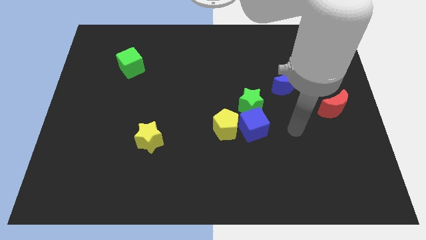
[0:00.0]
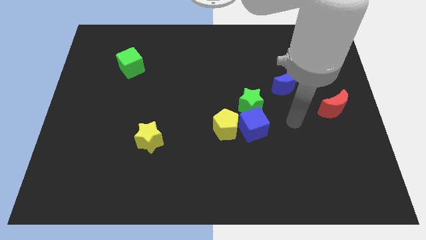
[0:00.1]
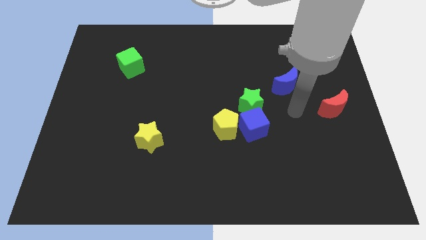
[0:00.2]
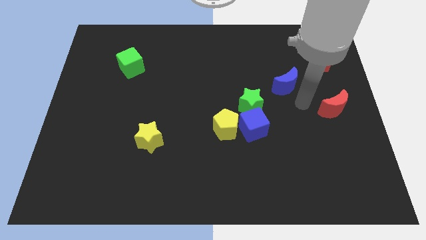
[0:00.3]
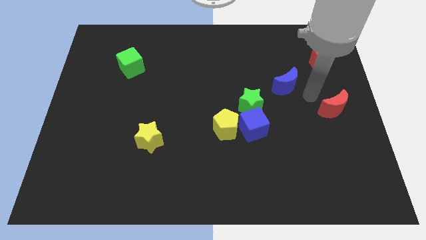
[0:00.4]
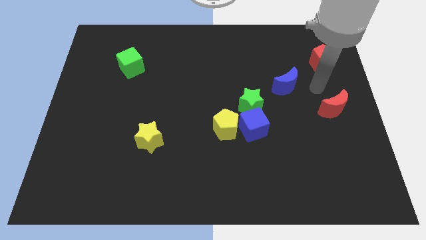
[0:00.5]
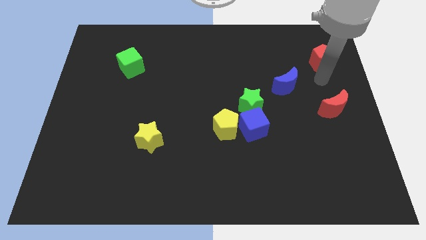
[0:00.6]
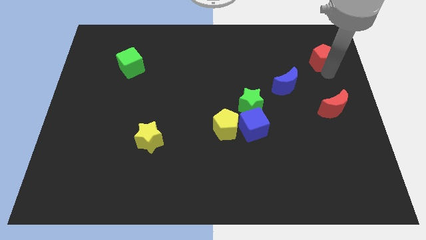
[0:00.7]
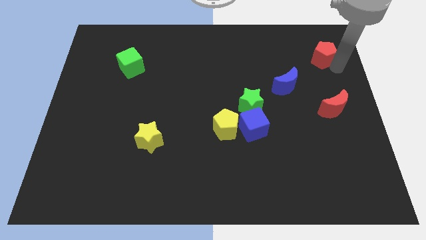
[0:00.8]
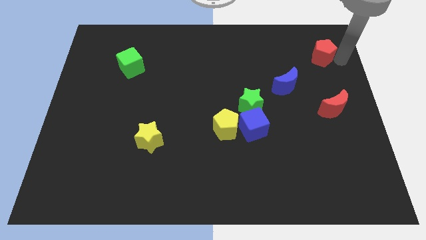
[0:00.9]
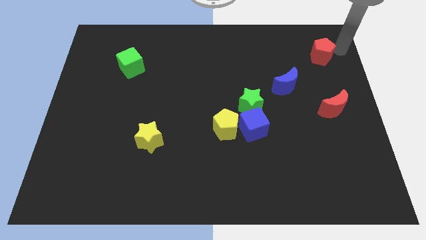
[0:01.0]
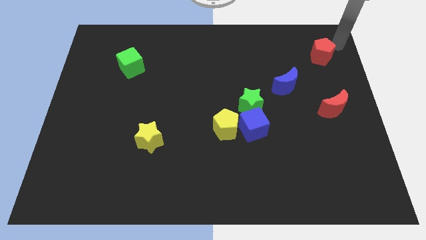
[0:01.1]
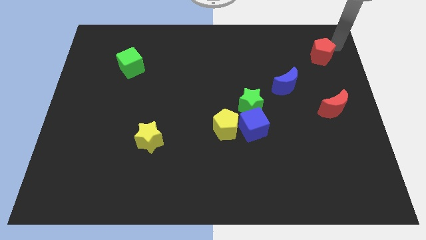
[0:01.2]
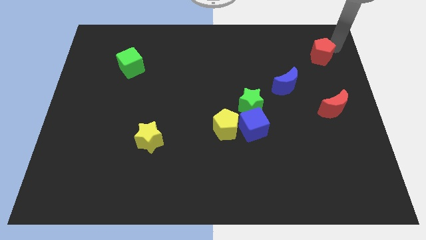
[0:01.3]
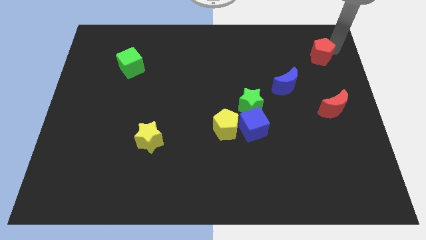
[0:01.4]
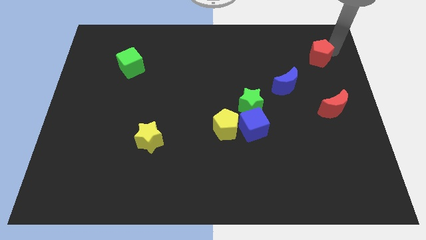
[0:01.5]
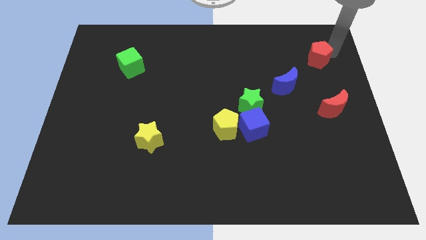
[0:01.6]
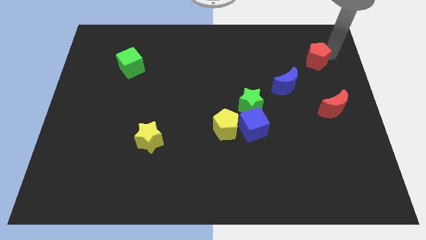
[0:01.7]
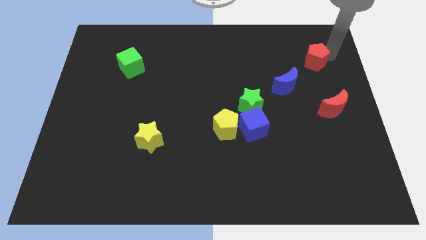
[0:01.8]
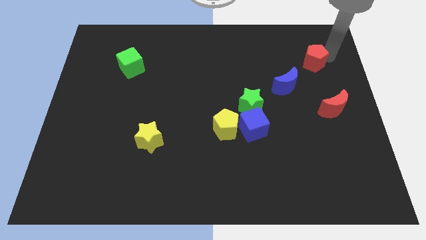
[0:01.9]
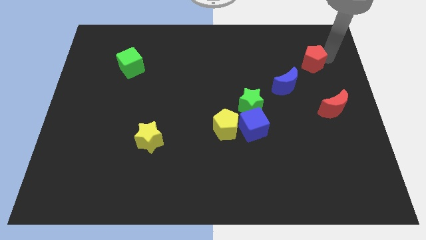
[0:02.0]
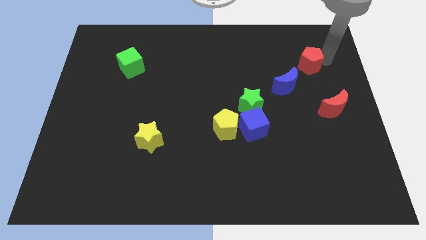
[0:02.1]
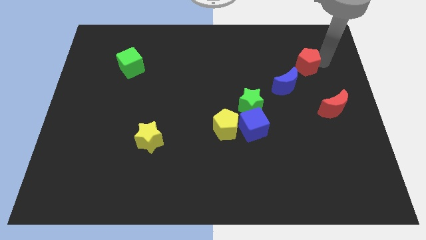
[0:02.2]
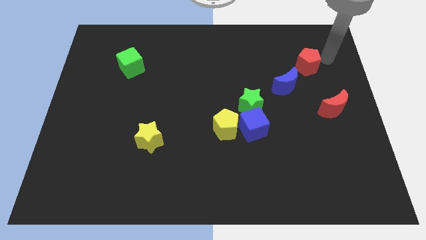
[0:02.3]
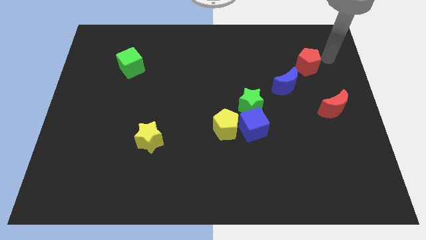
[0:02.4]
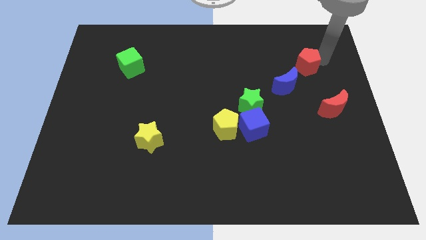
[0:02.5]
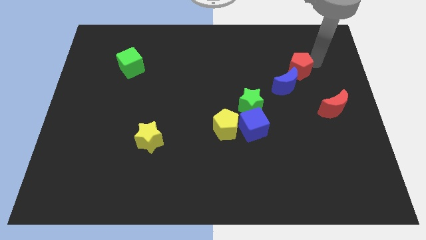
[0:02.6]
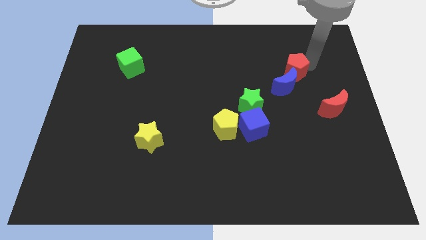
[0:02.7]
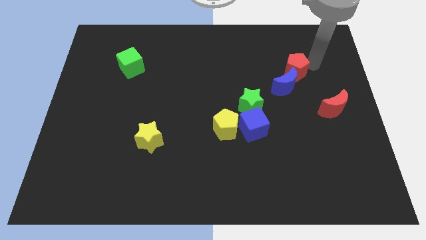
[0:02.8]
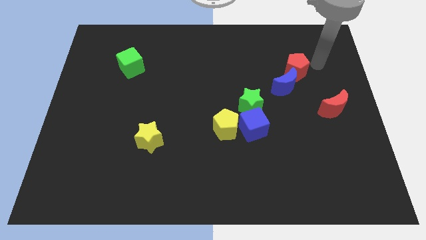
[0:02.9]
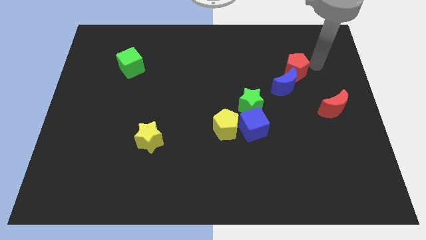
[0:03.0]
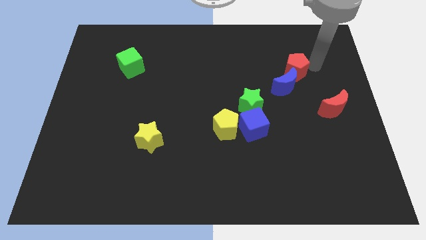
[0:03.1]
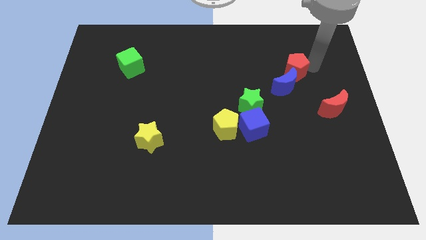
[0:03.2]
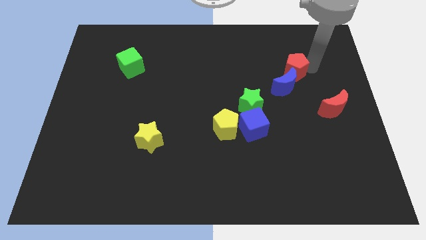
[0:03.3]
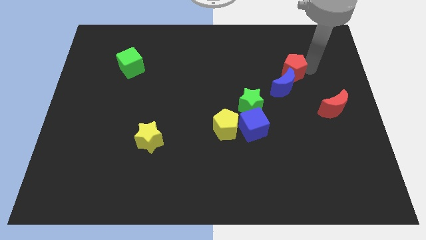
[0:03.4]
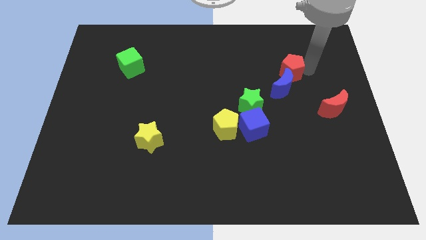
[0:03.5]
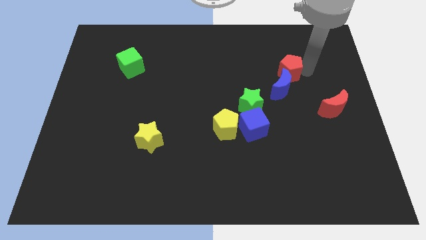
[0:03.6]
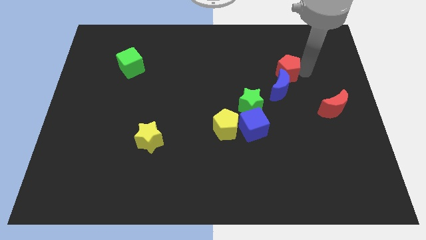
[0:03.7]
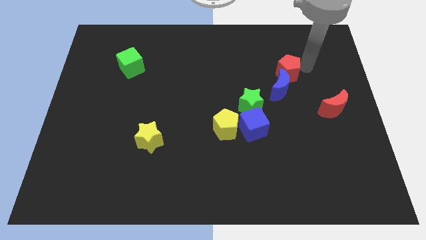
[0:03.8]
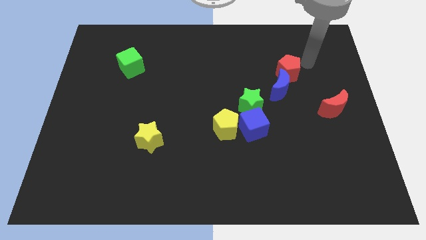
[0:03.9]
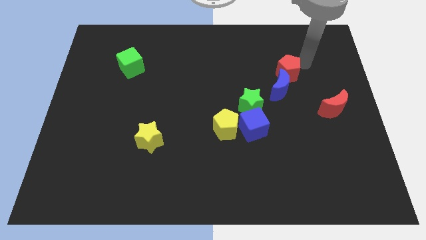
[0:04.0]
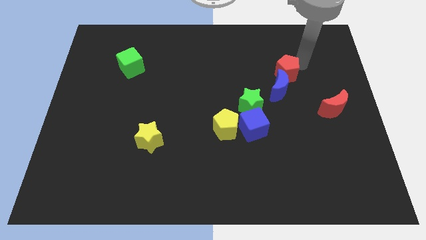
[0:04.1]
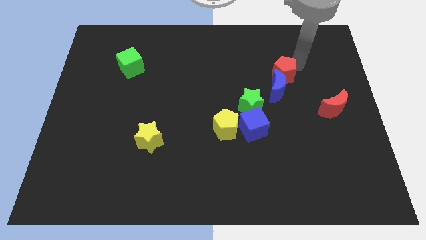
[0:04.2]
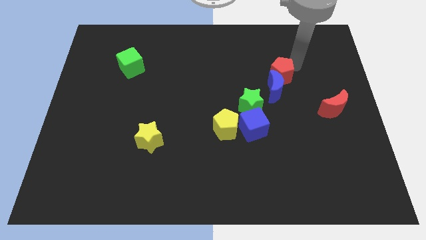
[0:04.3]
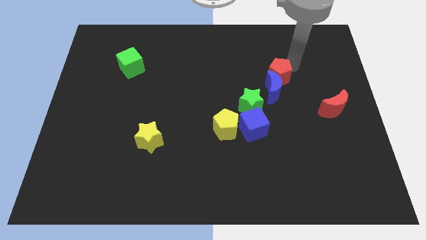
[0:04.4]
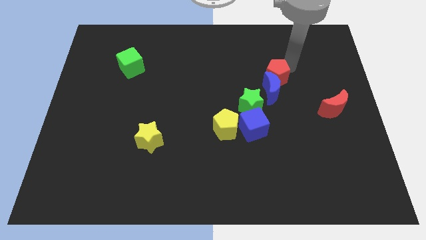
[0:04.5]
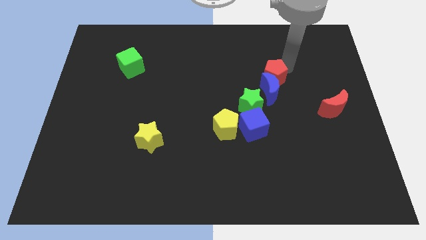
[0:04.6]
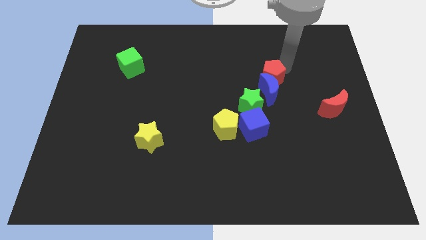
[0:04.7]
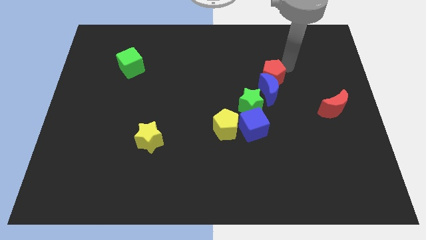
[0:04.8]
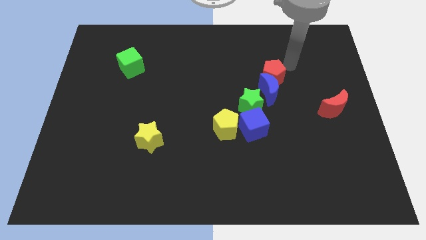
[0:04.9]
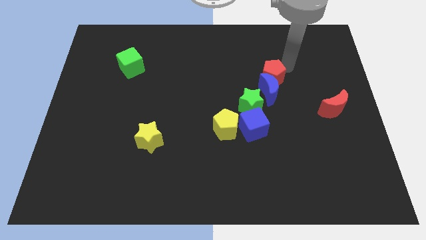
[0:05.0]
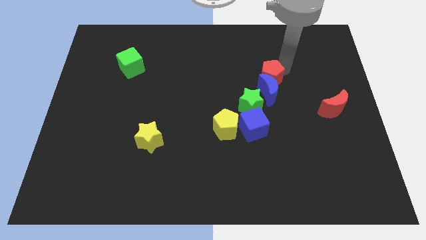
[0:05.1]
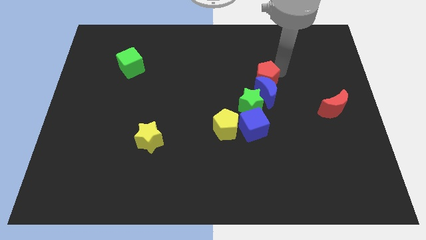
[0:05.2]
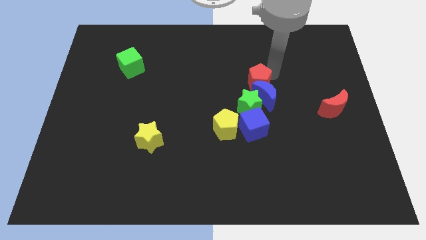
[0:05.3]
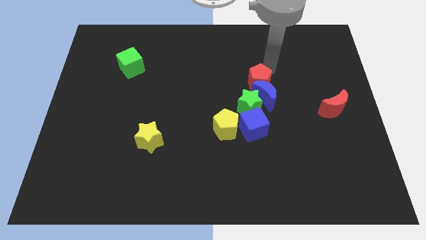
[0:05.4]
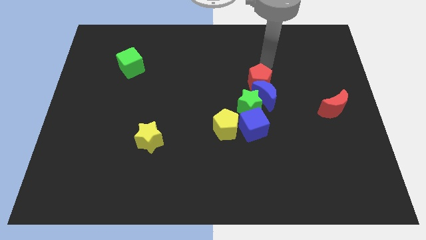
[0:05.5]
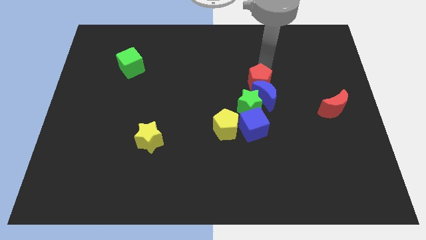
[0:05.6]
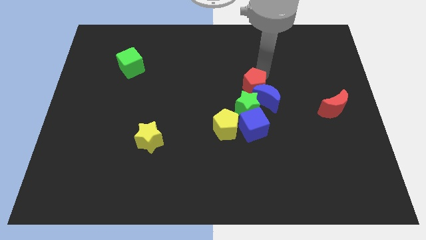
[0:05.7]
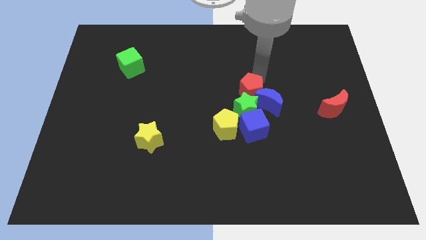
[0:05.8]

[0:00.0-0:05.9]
push the red pentagon close to the green star

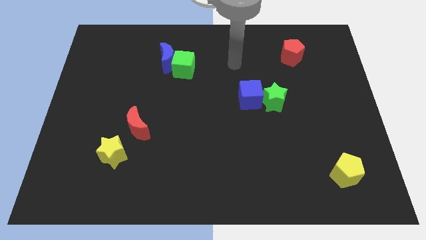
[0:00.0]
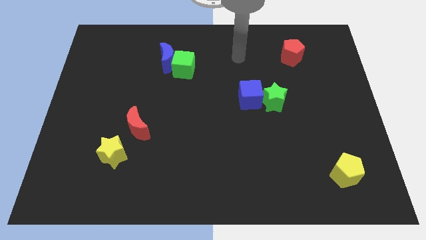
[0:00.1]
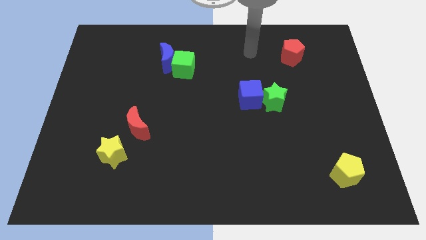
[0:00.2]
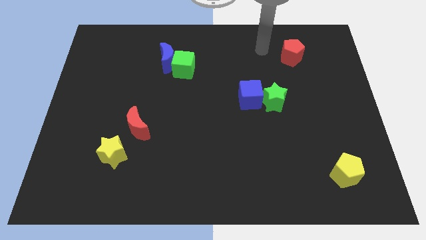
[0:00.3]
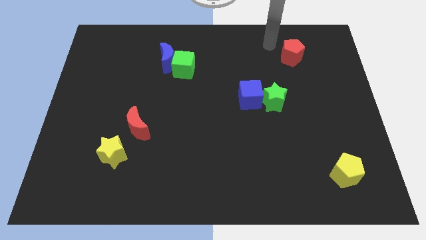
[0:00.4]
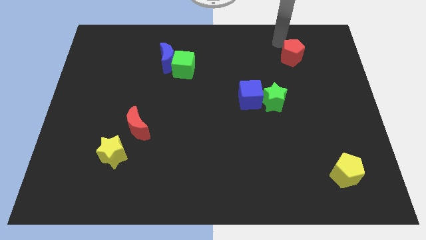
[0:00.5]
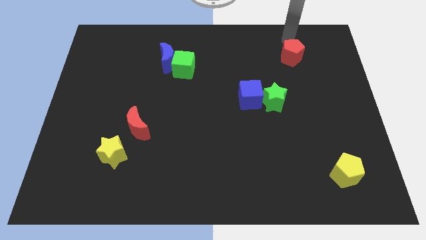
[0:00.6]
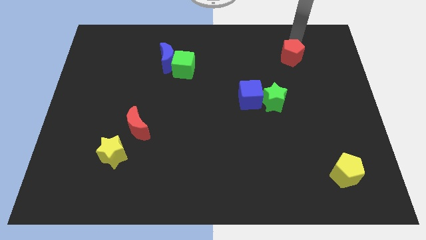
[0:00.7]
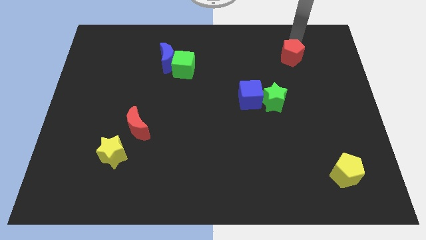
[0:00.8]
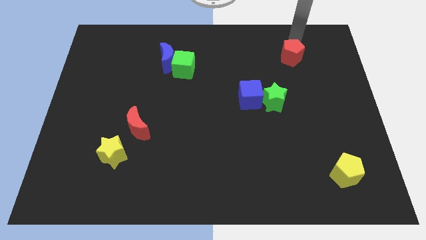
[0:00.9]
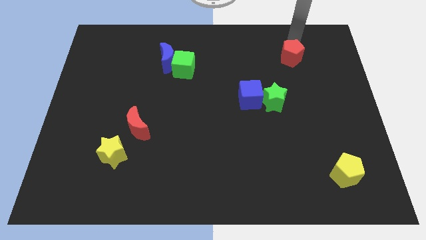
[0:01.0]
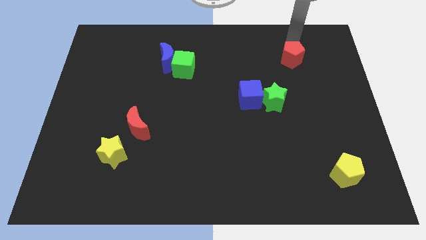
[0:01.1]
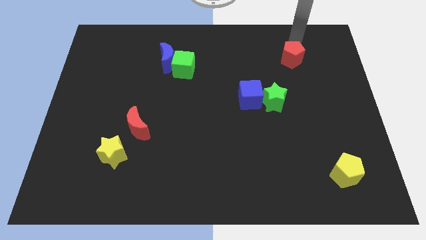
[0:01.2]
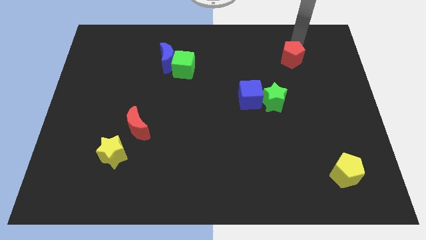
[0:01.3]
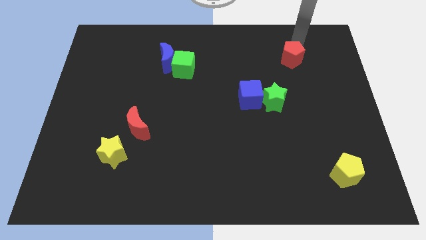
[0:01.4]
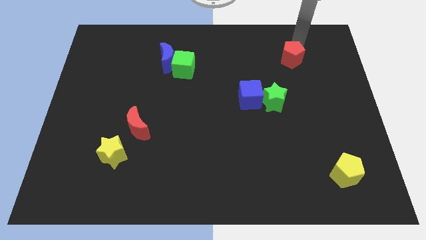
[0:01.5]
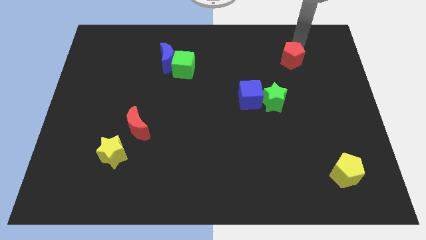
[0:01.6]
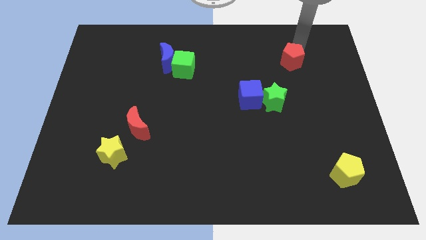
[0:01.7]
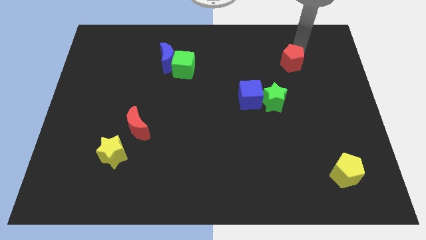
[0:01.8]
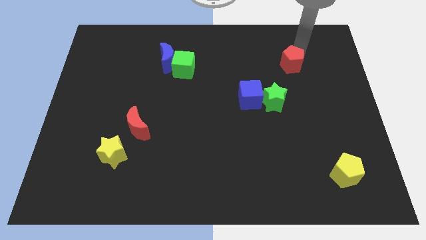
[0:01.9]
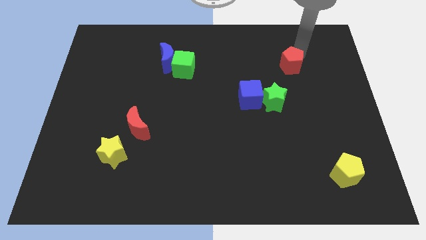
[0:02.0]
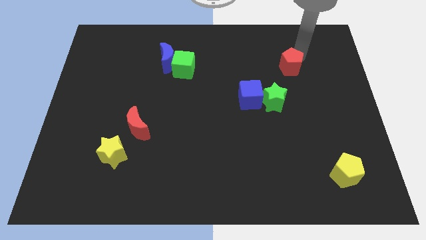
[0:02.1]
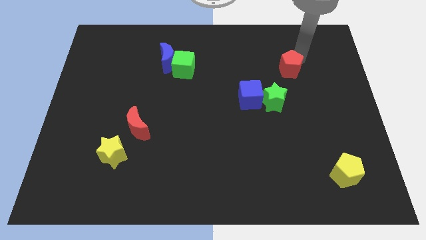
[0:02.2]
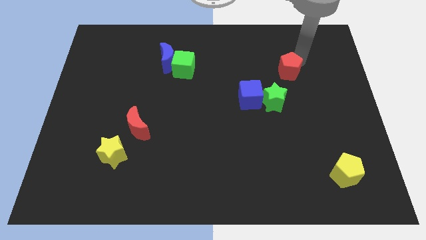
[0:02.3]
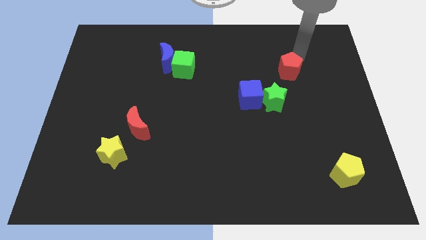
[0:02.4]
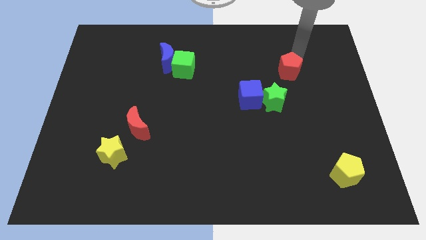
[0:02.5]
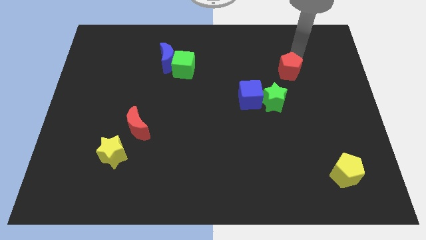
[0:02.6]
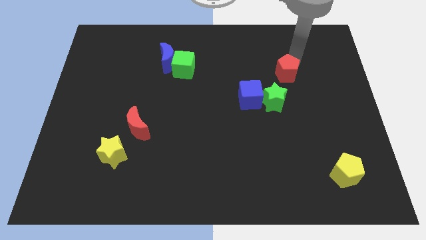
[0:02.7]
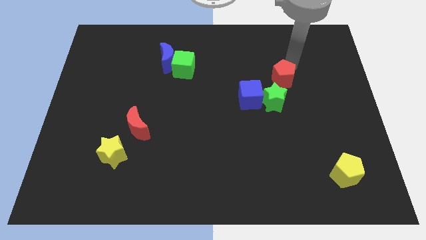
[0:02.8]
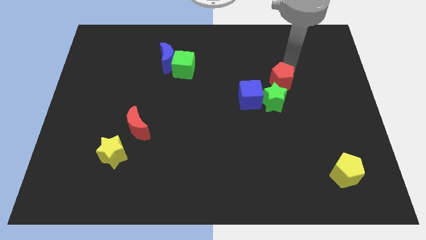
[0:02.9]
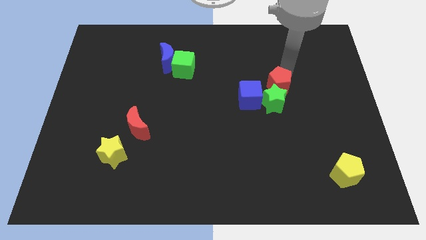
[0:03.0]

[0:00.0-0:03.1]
move the red pentagon next to the green star
